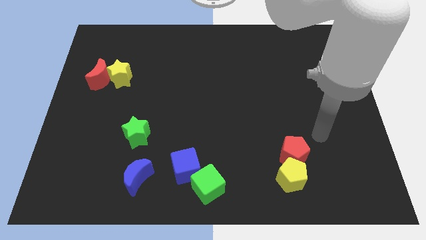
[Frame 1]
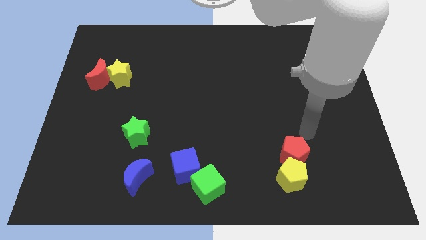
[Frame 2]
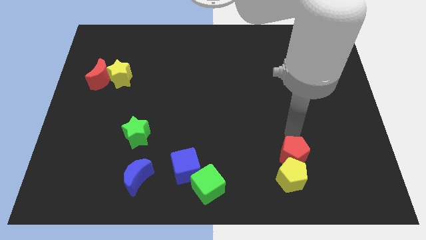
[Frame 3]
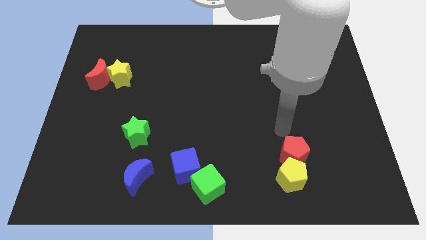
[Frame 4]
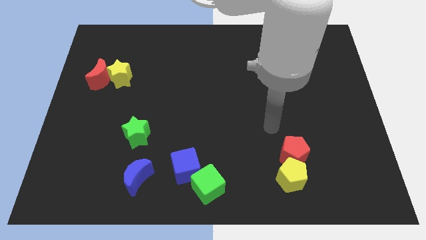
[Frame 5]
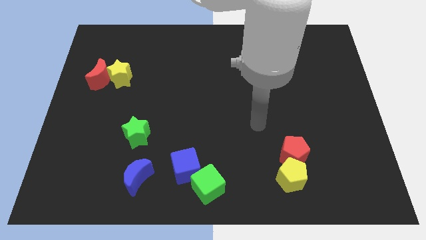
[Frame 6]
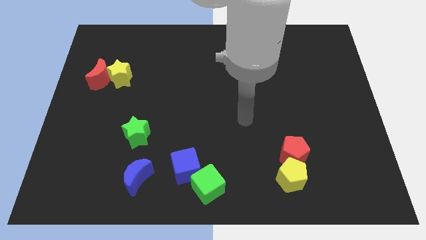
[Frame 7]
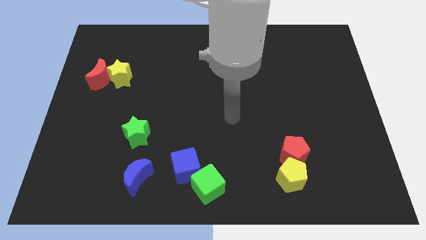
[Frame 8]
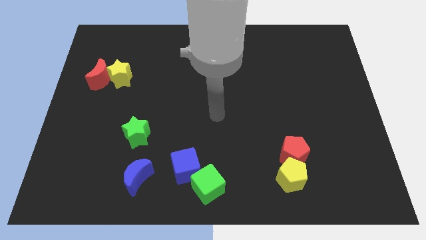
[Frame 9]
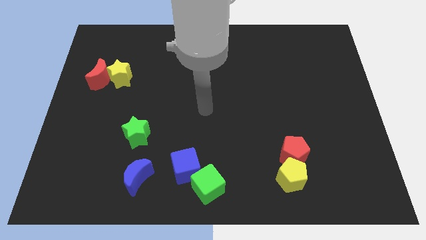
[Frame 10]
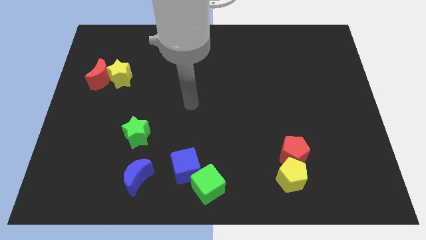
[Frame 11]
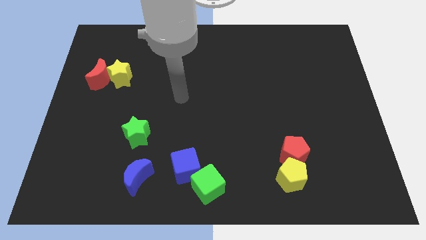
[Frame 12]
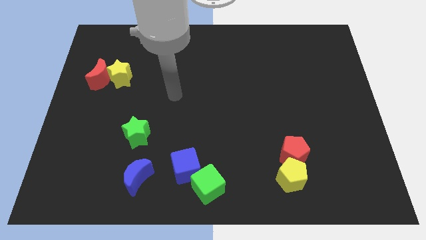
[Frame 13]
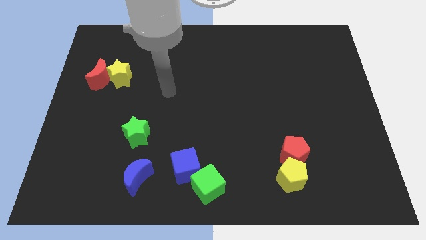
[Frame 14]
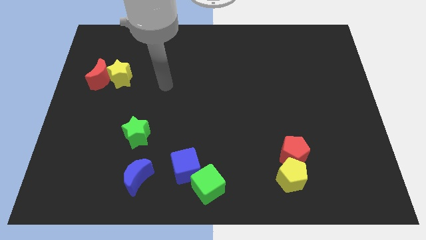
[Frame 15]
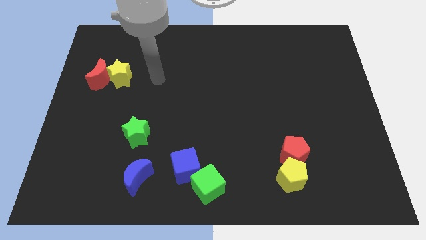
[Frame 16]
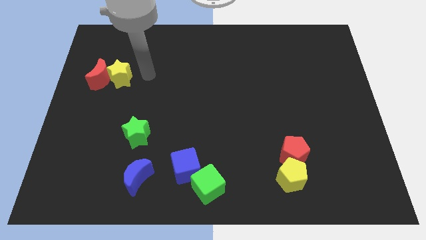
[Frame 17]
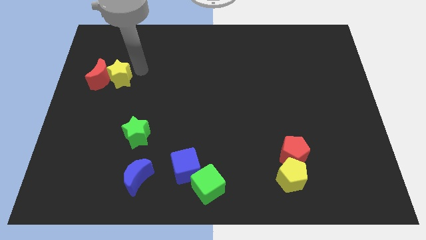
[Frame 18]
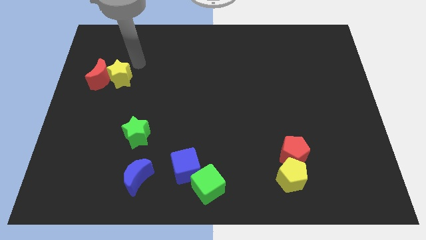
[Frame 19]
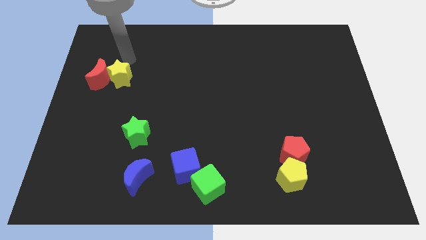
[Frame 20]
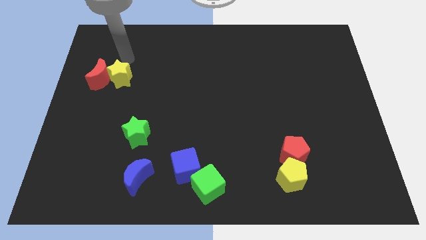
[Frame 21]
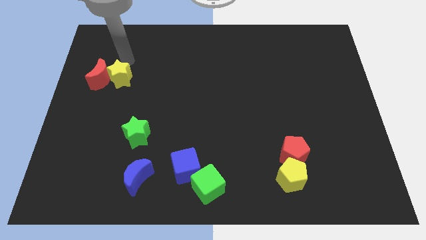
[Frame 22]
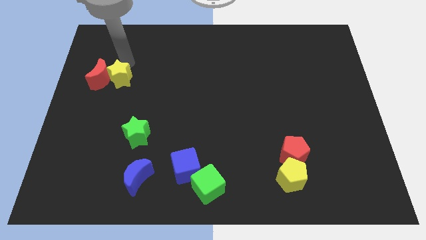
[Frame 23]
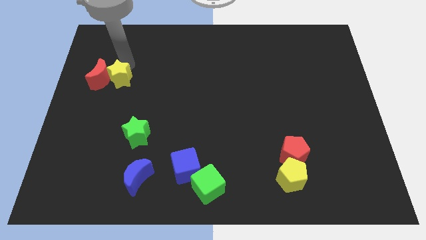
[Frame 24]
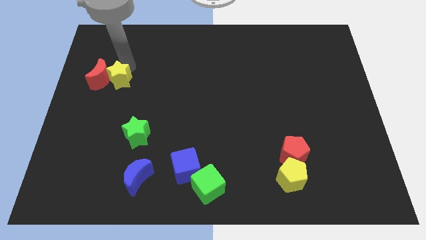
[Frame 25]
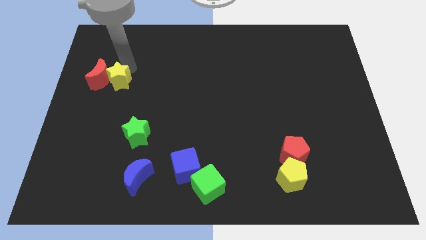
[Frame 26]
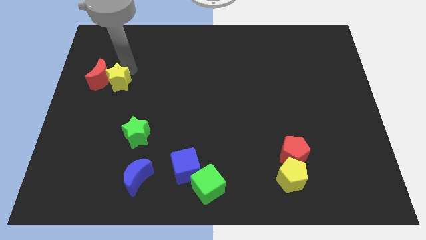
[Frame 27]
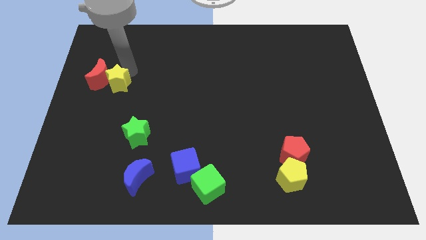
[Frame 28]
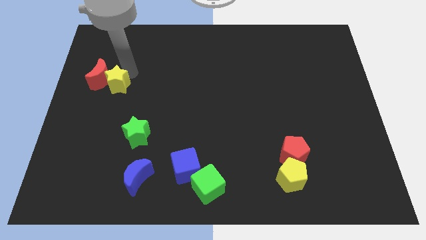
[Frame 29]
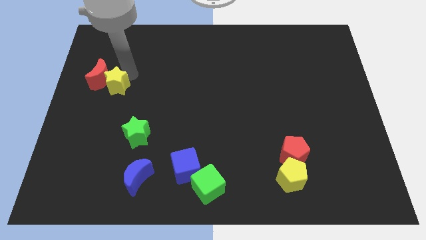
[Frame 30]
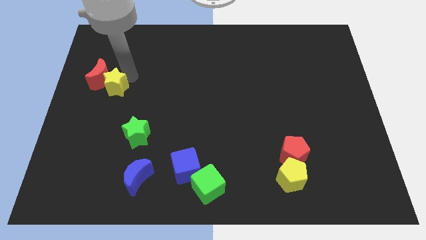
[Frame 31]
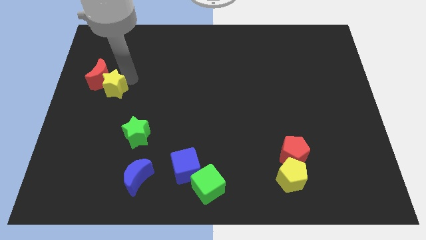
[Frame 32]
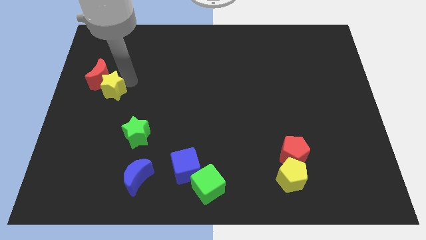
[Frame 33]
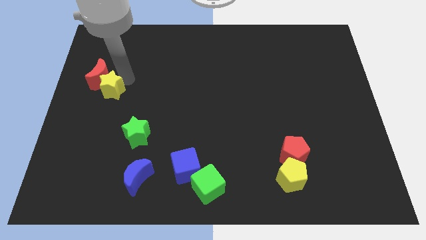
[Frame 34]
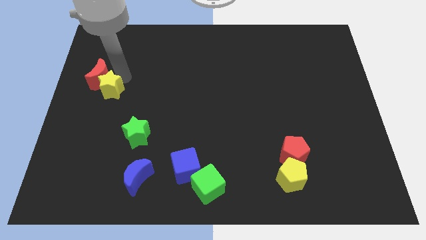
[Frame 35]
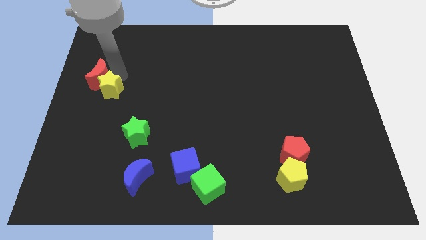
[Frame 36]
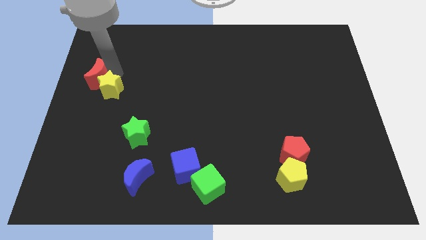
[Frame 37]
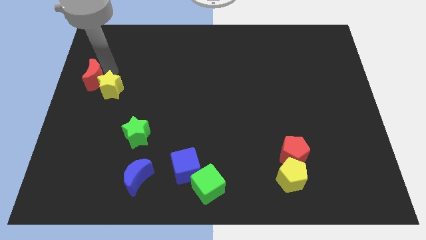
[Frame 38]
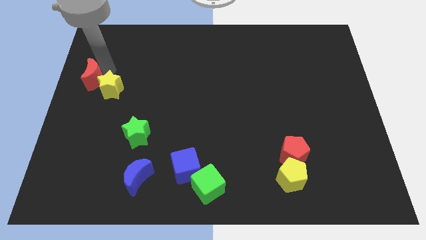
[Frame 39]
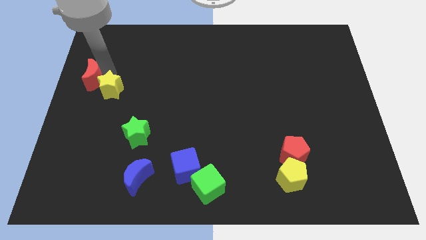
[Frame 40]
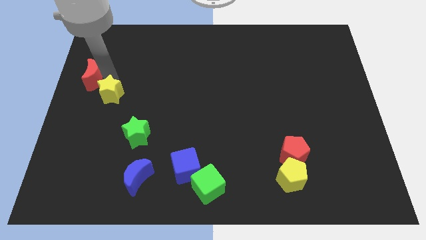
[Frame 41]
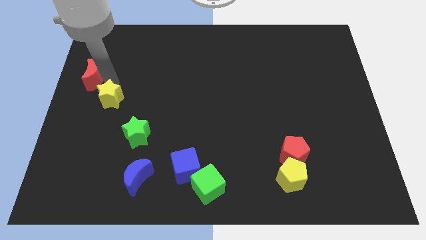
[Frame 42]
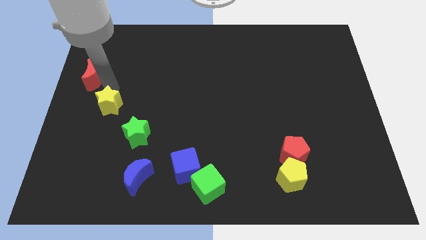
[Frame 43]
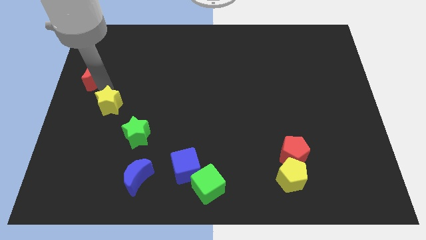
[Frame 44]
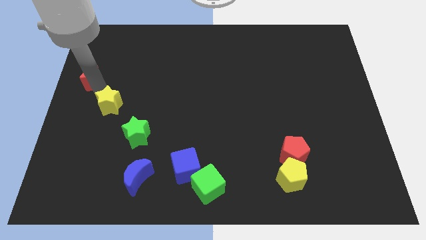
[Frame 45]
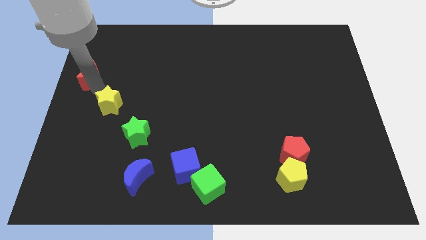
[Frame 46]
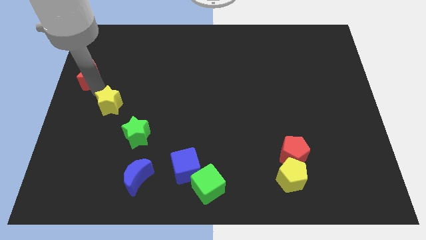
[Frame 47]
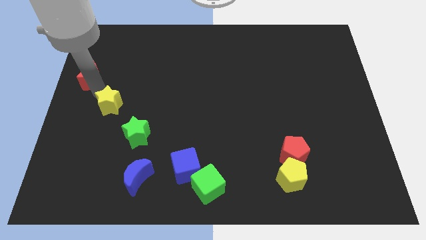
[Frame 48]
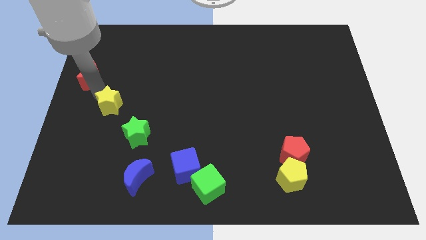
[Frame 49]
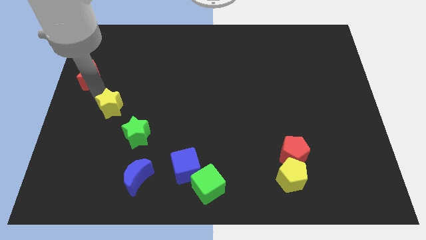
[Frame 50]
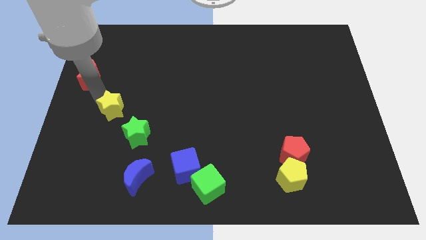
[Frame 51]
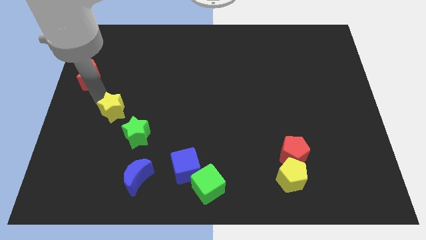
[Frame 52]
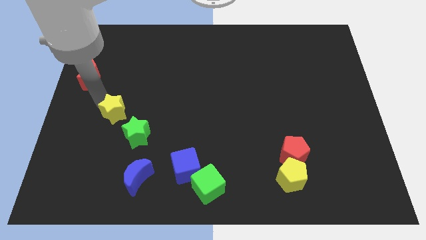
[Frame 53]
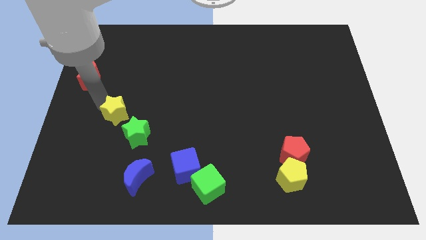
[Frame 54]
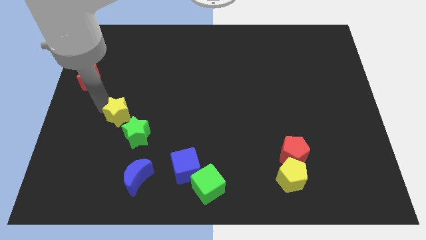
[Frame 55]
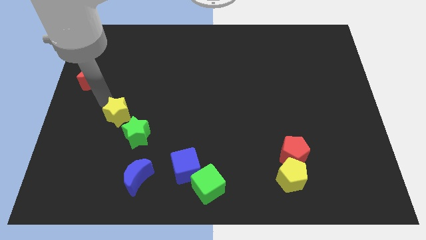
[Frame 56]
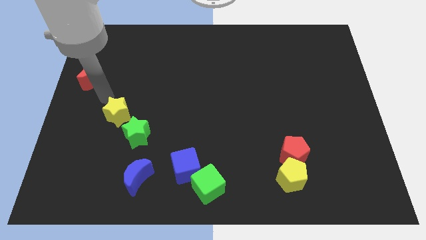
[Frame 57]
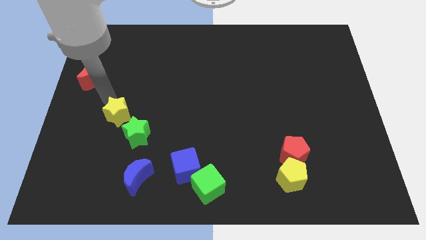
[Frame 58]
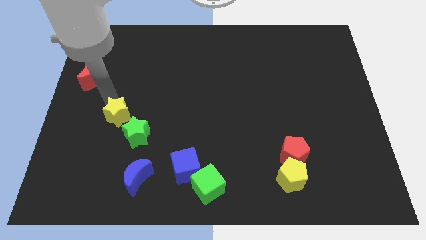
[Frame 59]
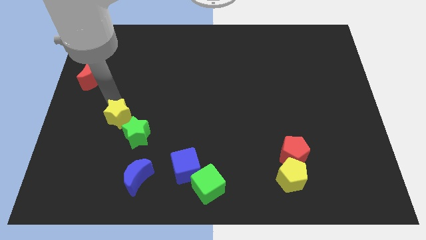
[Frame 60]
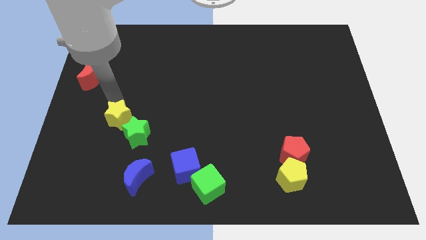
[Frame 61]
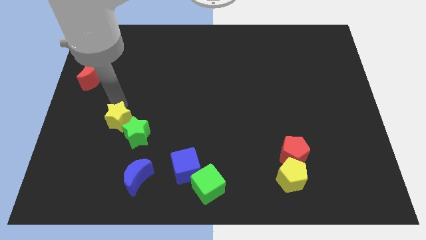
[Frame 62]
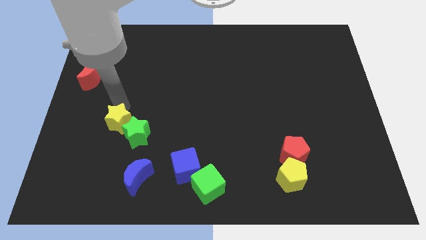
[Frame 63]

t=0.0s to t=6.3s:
move the yellow star towards the green star
